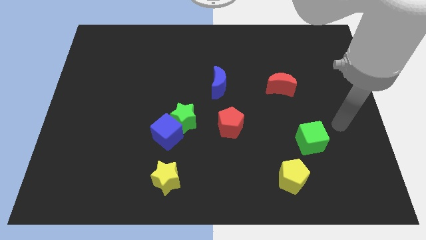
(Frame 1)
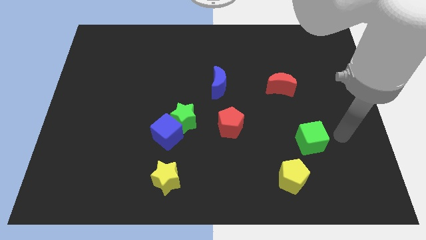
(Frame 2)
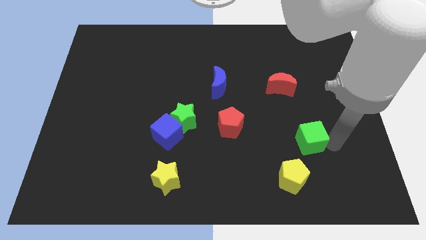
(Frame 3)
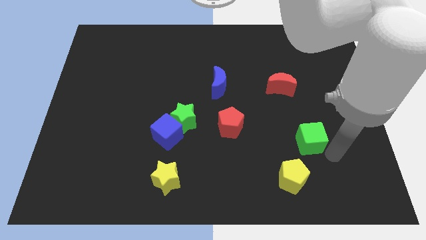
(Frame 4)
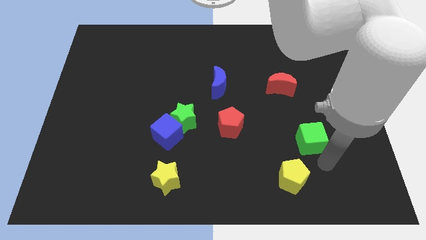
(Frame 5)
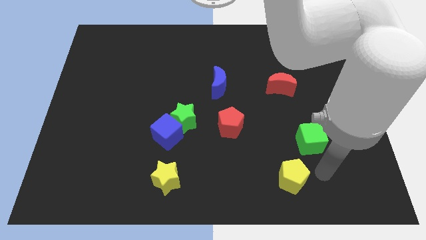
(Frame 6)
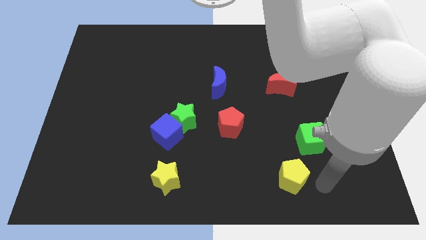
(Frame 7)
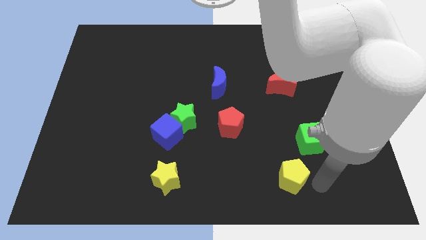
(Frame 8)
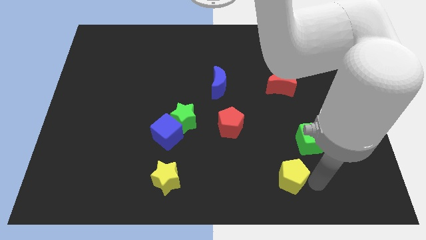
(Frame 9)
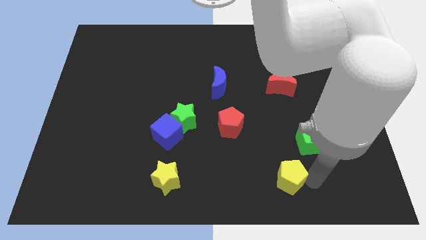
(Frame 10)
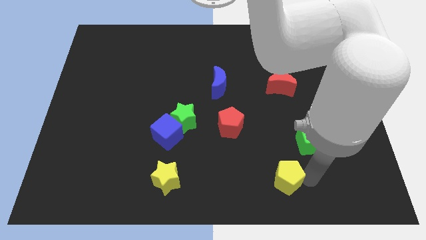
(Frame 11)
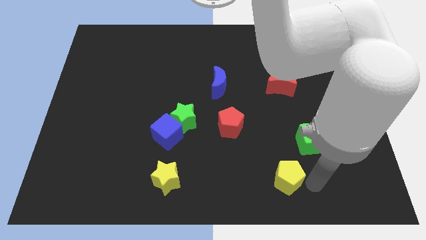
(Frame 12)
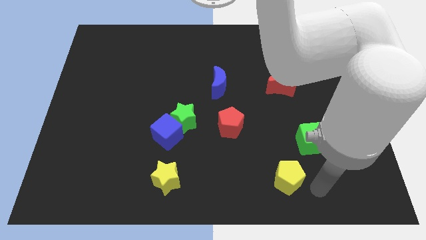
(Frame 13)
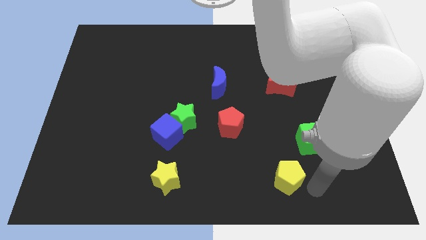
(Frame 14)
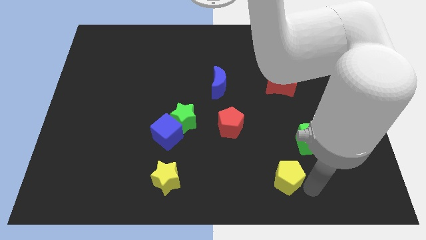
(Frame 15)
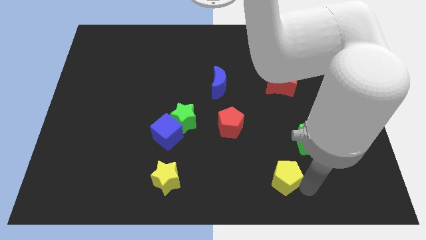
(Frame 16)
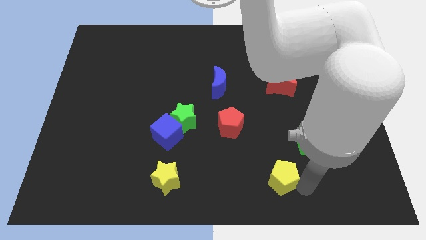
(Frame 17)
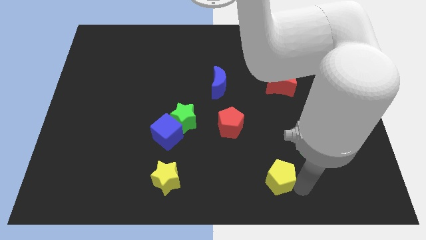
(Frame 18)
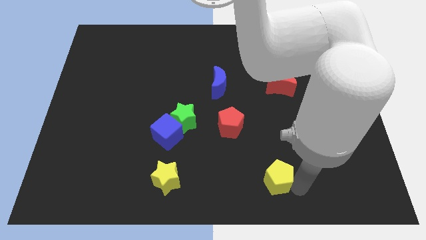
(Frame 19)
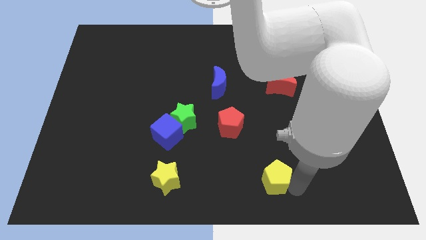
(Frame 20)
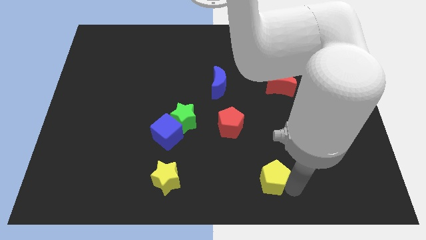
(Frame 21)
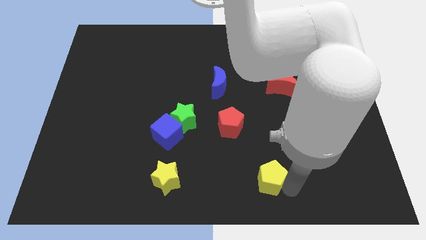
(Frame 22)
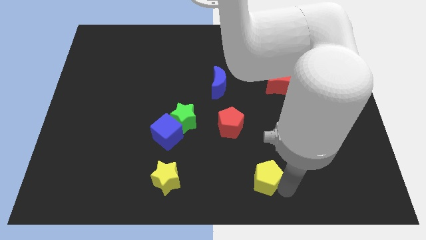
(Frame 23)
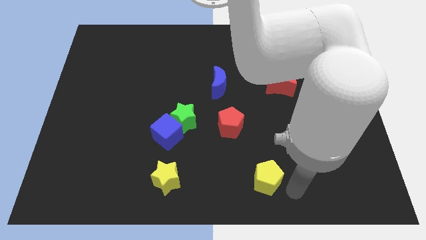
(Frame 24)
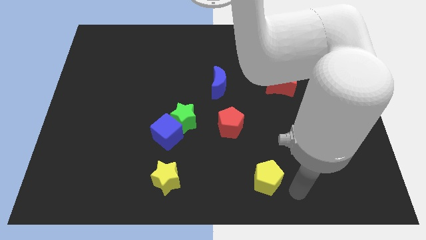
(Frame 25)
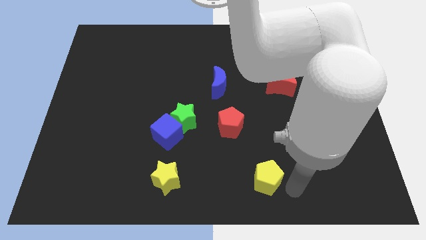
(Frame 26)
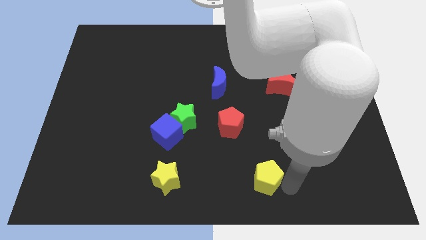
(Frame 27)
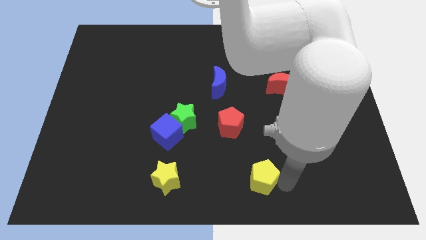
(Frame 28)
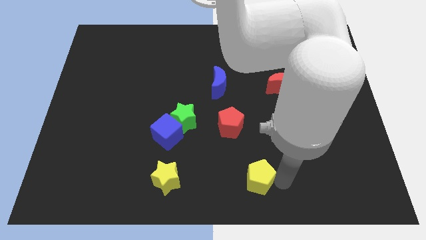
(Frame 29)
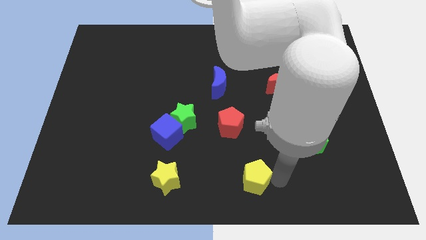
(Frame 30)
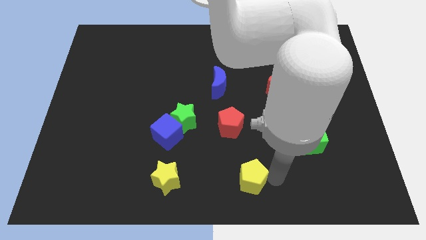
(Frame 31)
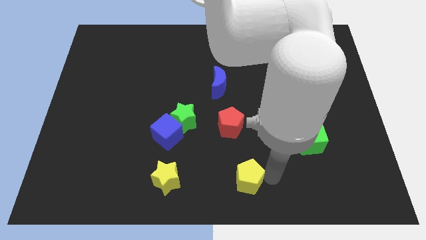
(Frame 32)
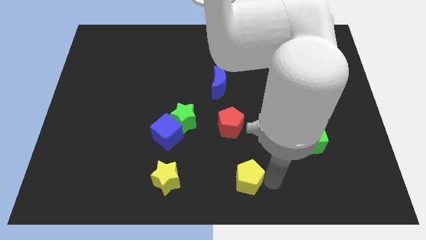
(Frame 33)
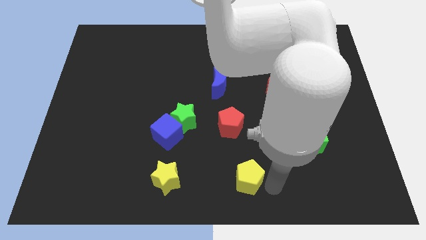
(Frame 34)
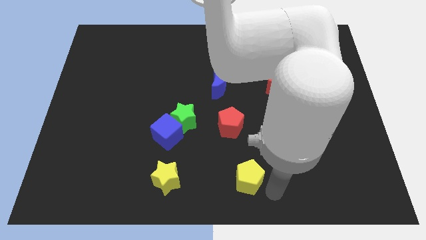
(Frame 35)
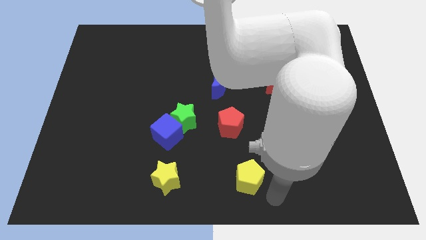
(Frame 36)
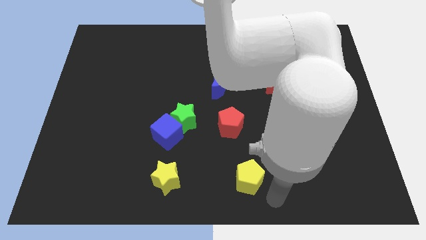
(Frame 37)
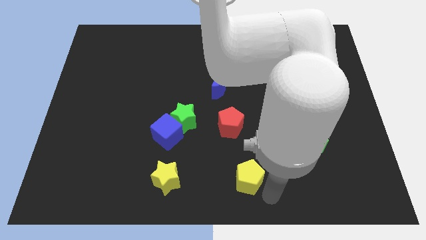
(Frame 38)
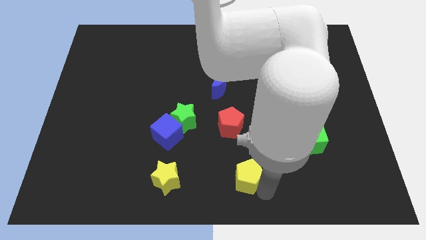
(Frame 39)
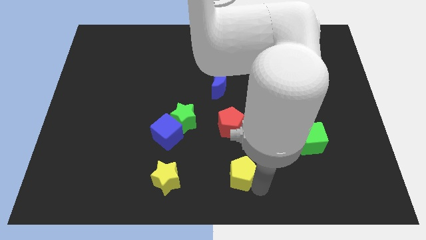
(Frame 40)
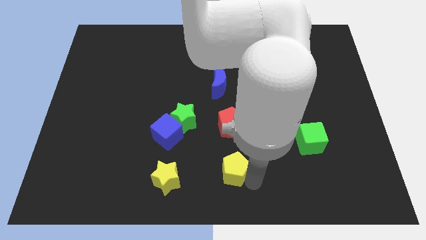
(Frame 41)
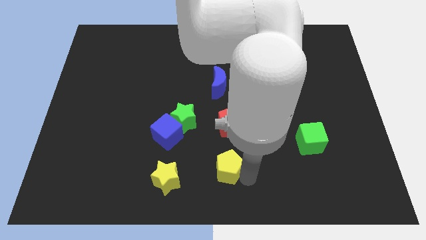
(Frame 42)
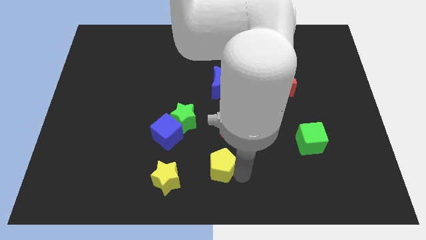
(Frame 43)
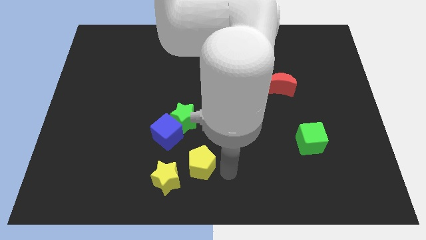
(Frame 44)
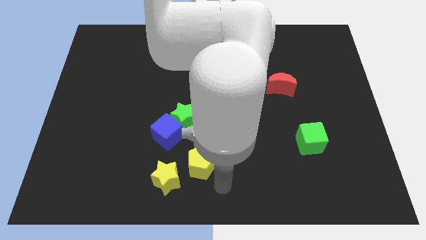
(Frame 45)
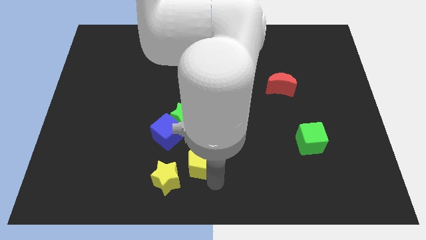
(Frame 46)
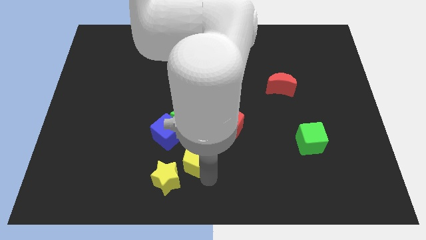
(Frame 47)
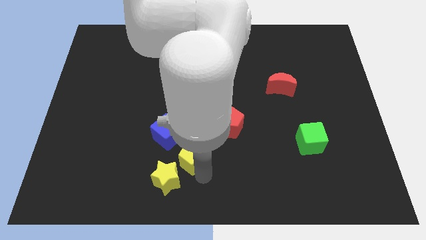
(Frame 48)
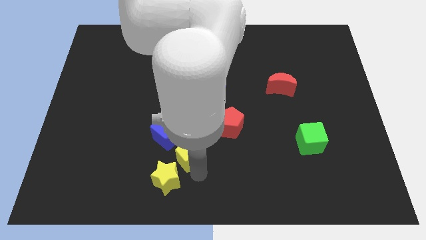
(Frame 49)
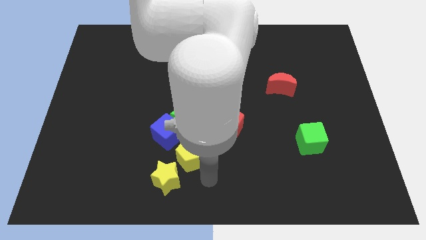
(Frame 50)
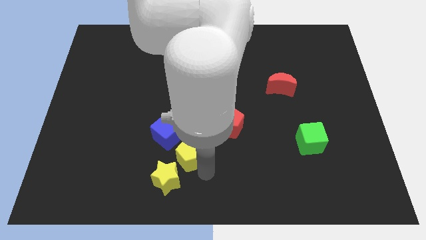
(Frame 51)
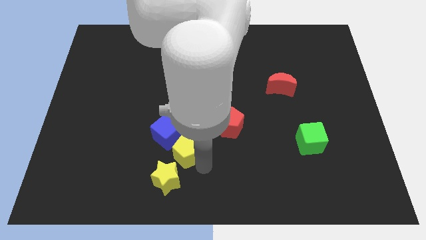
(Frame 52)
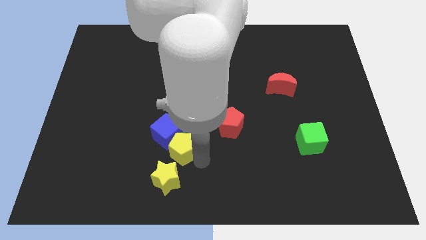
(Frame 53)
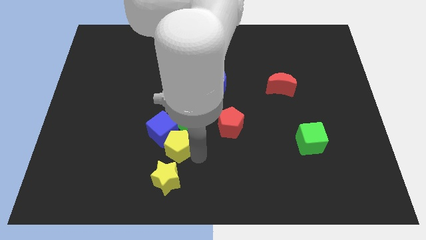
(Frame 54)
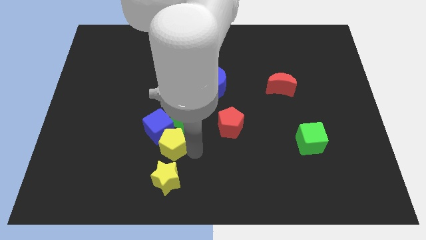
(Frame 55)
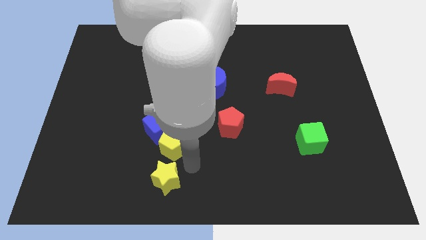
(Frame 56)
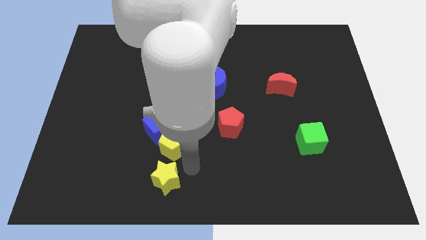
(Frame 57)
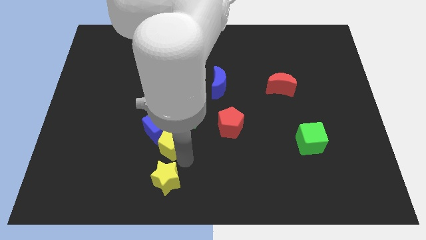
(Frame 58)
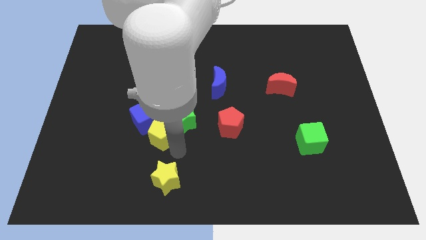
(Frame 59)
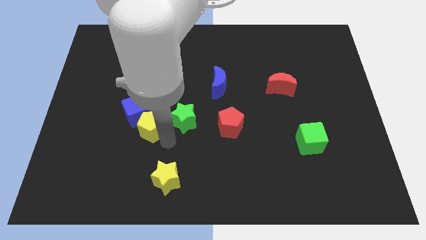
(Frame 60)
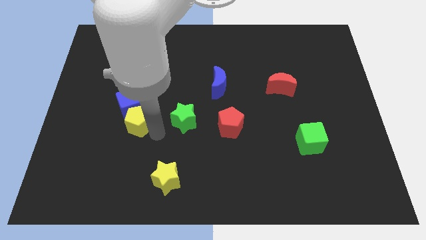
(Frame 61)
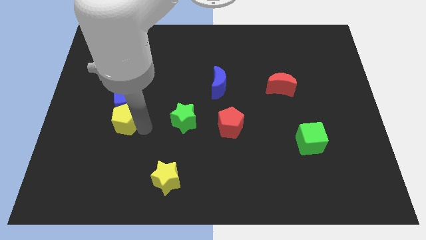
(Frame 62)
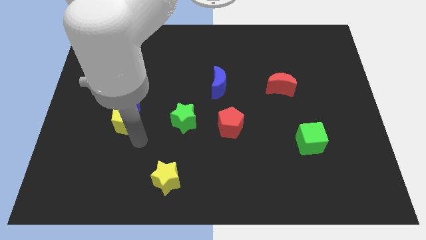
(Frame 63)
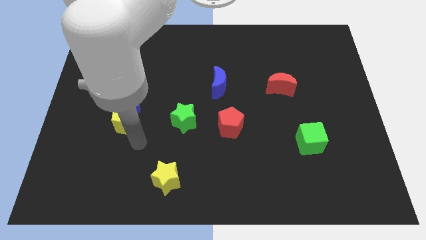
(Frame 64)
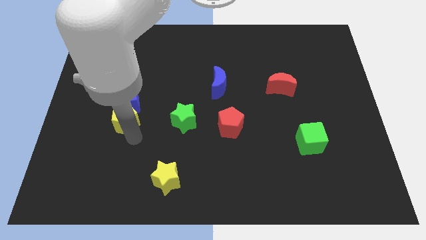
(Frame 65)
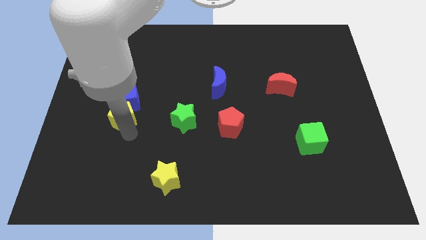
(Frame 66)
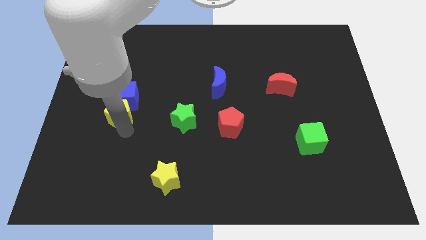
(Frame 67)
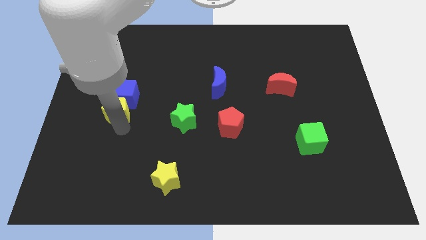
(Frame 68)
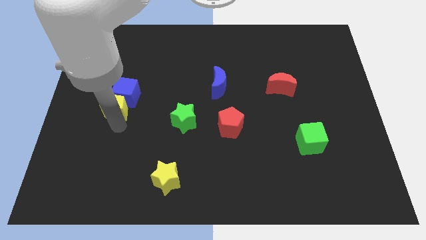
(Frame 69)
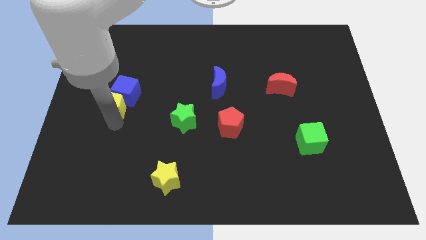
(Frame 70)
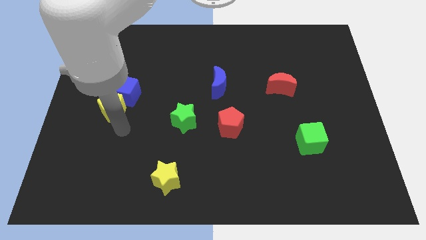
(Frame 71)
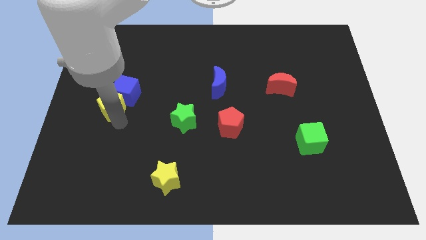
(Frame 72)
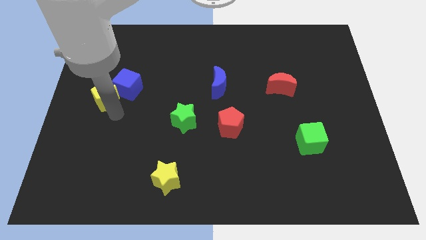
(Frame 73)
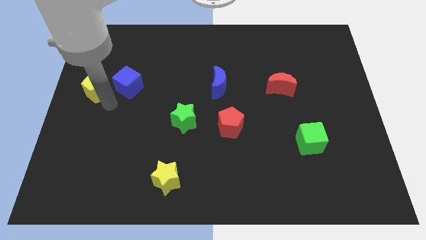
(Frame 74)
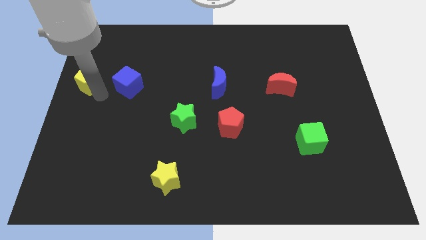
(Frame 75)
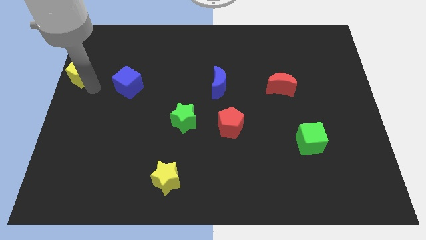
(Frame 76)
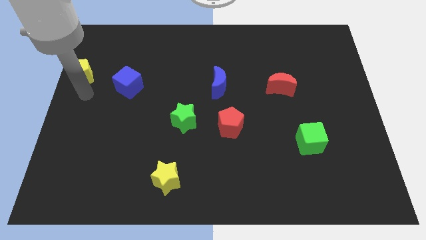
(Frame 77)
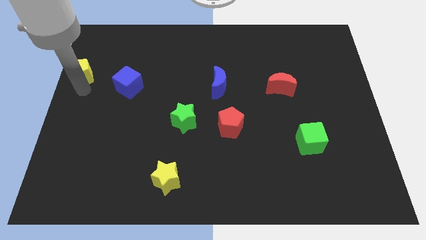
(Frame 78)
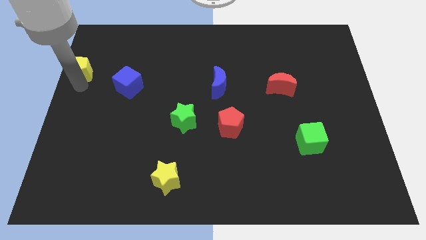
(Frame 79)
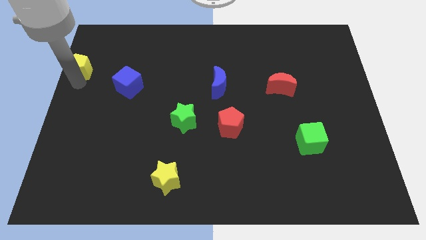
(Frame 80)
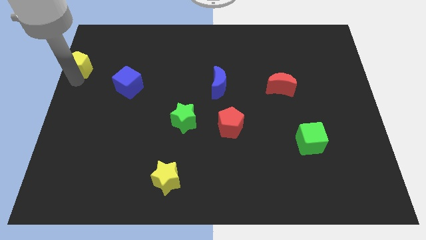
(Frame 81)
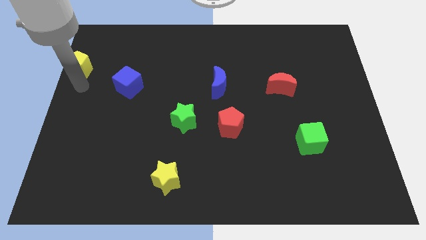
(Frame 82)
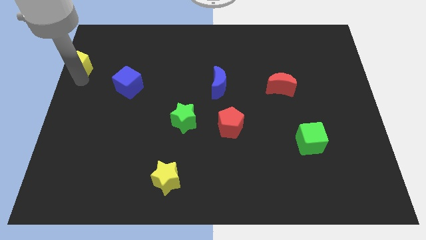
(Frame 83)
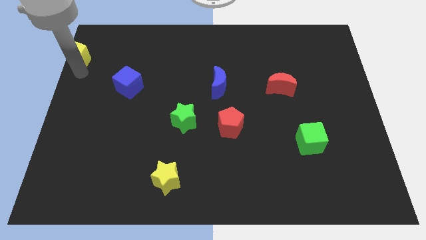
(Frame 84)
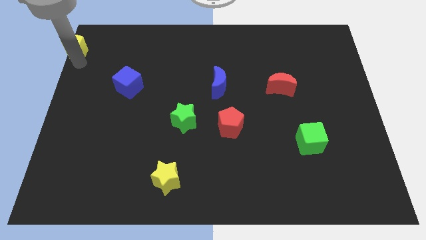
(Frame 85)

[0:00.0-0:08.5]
move the yellow pentagon to the top left of the board
